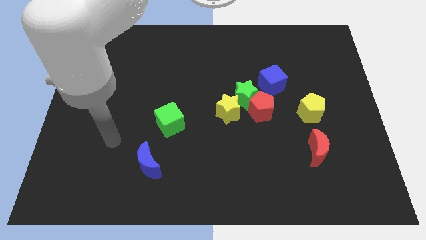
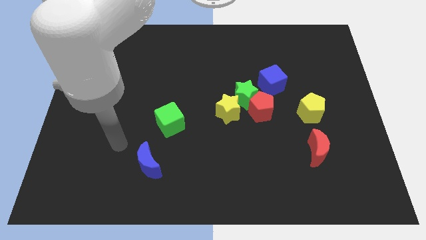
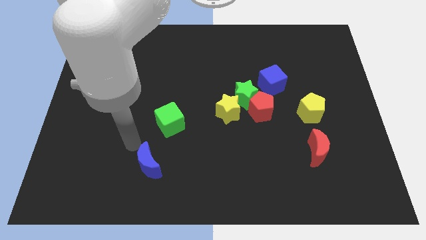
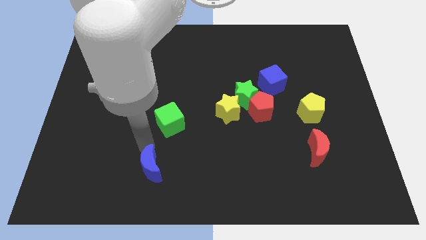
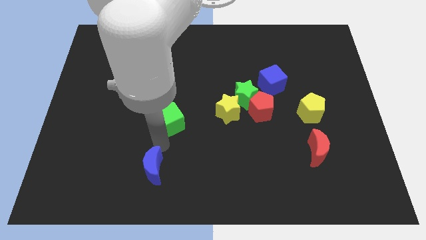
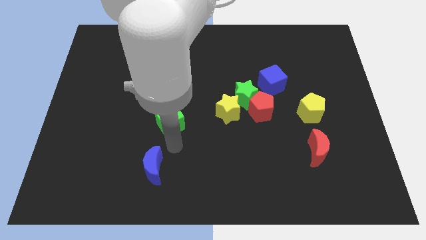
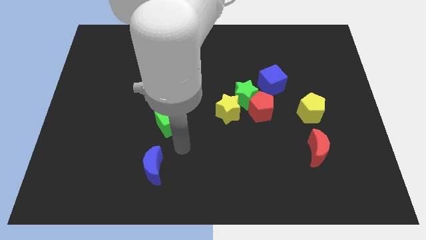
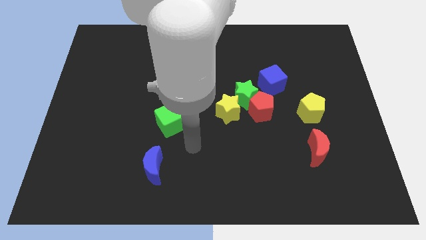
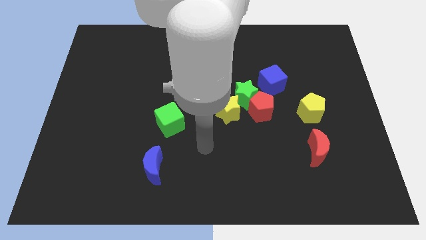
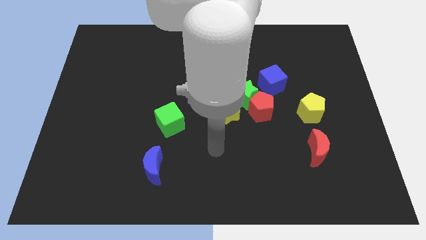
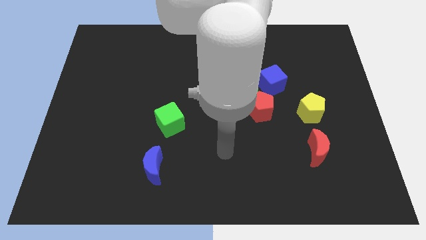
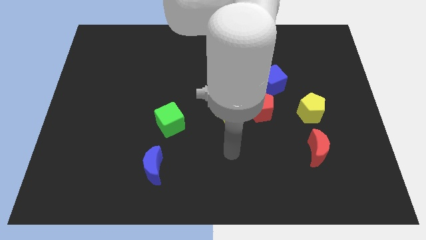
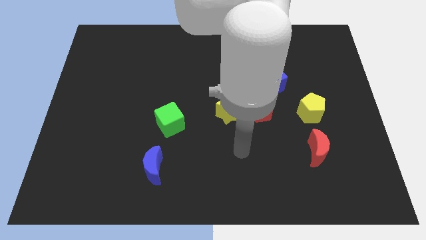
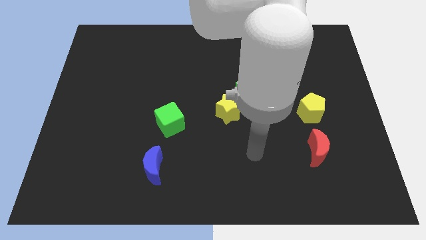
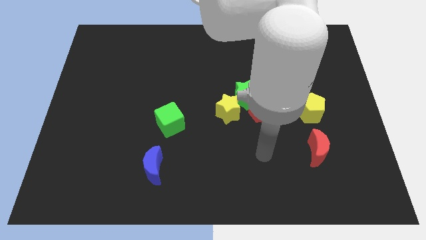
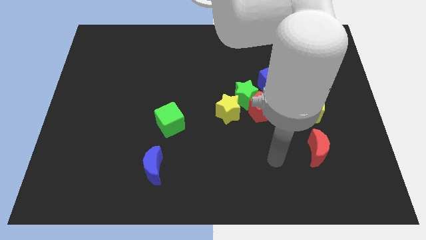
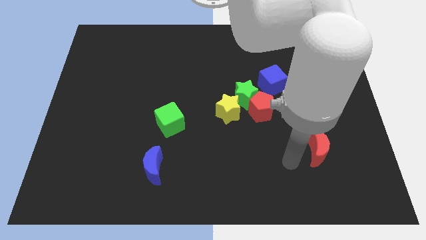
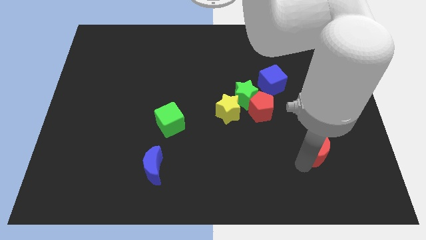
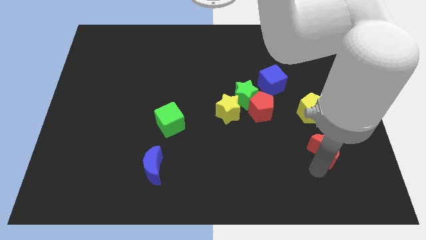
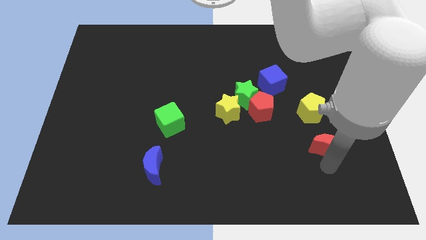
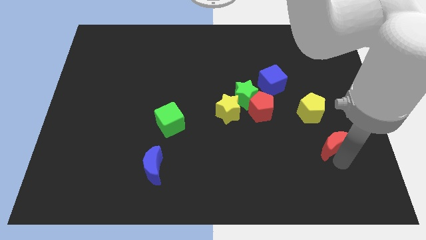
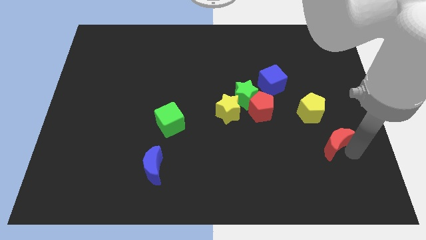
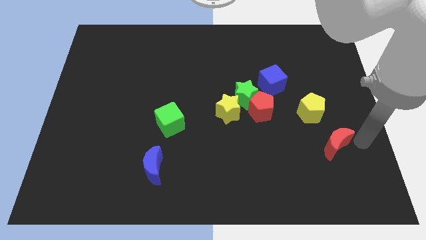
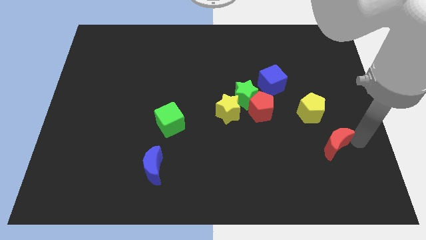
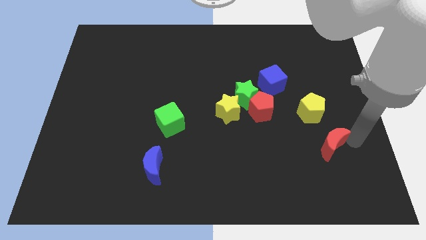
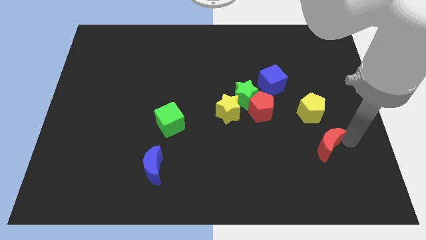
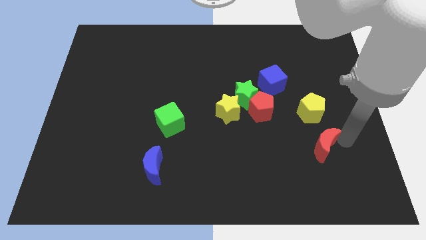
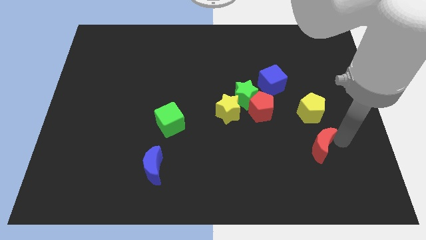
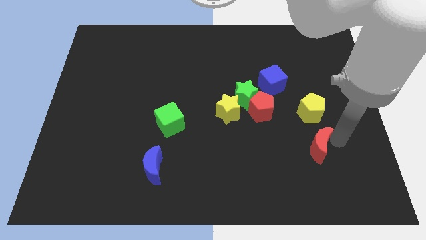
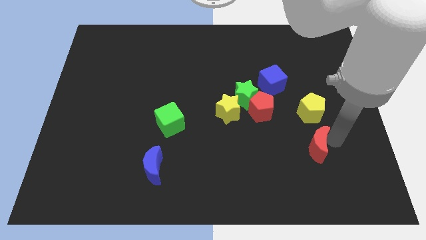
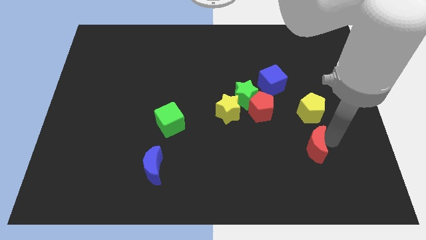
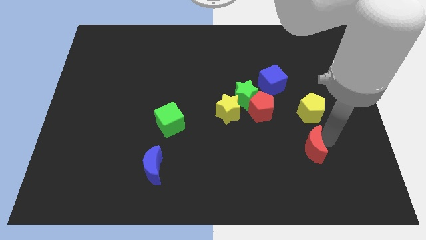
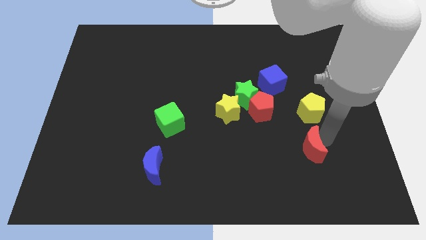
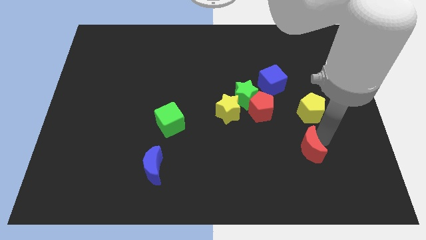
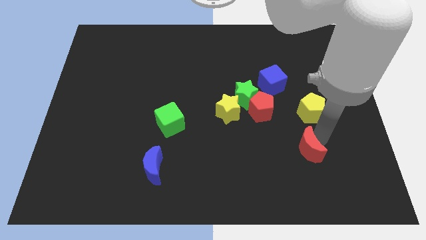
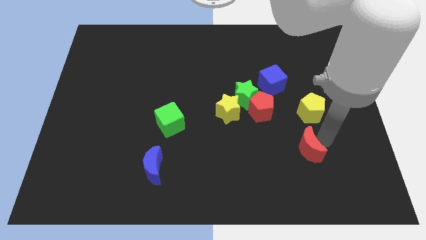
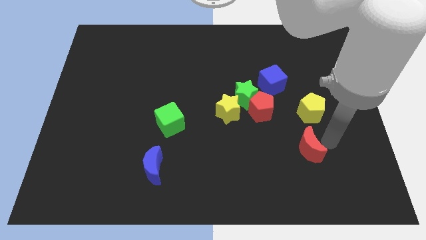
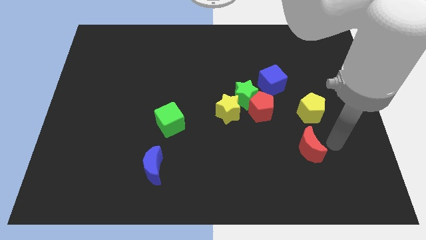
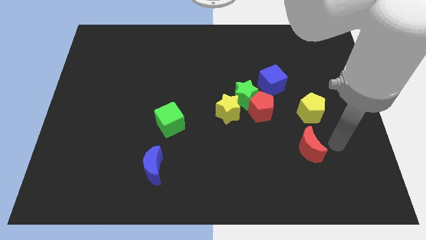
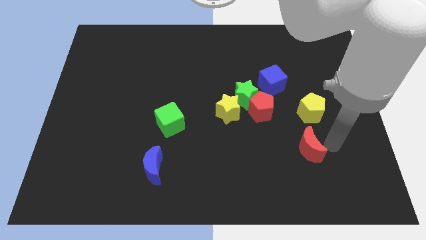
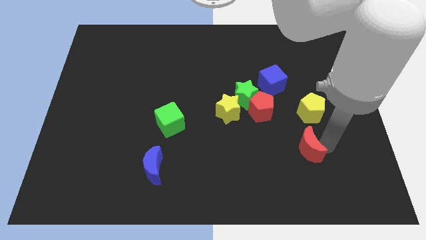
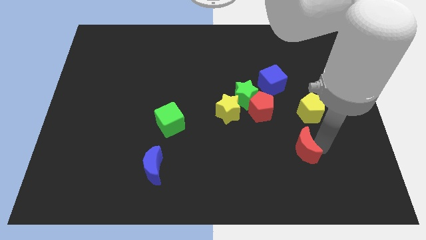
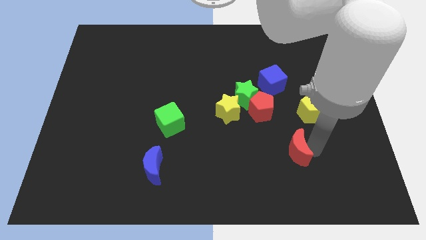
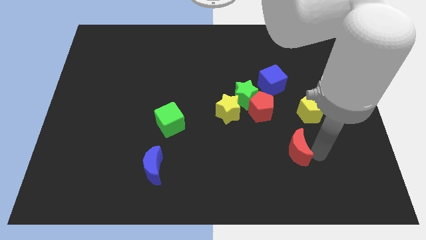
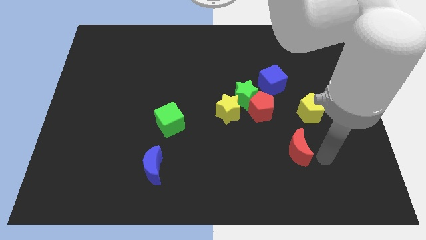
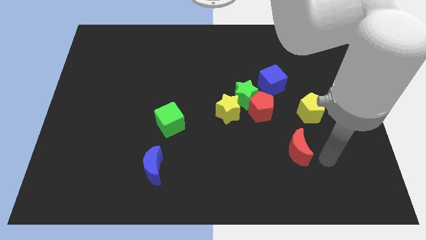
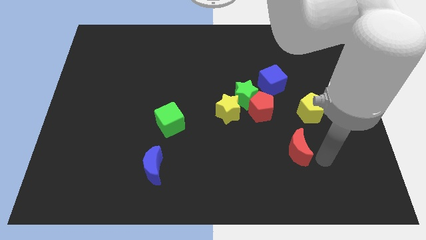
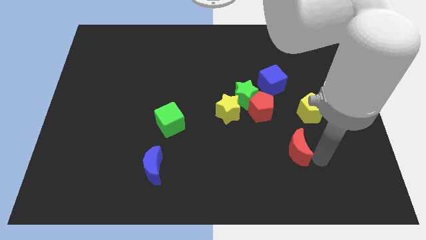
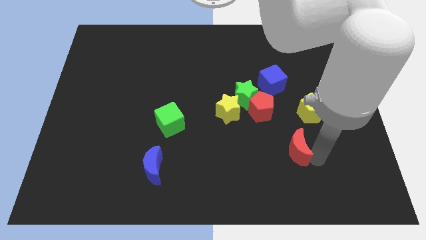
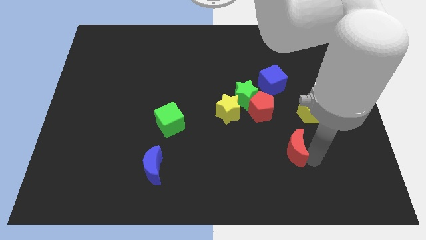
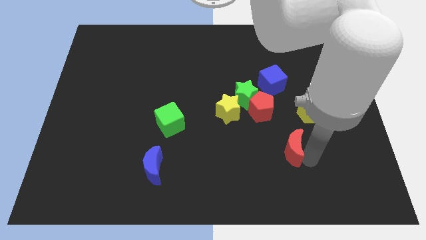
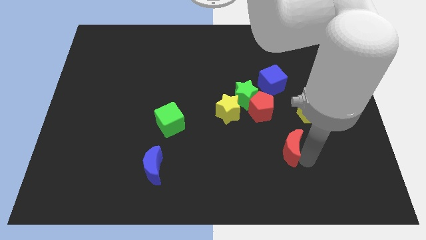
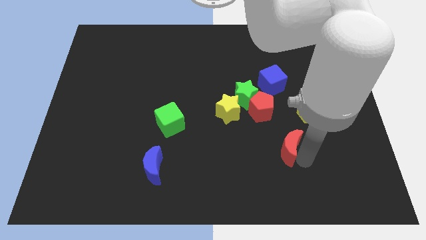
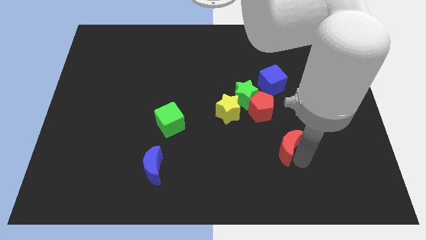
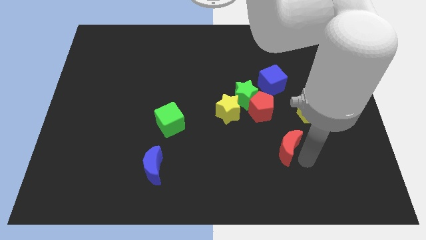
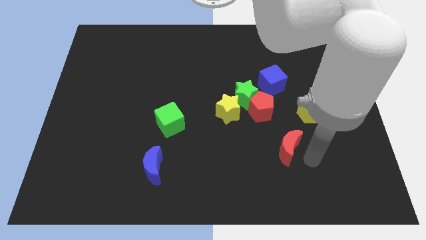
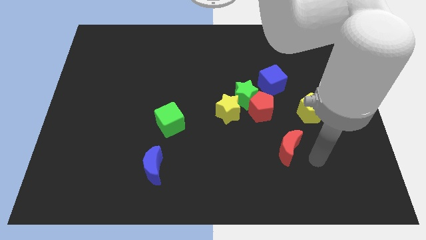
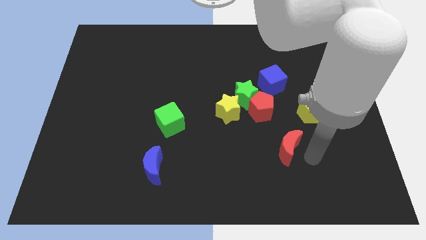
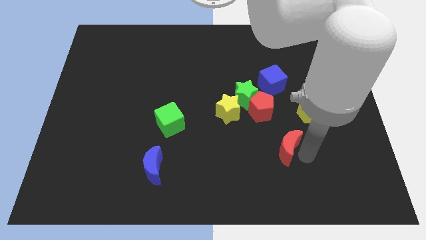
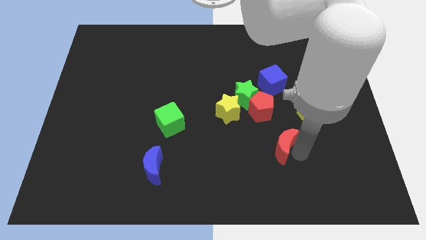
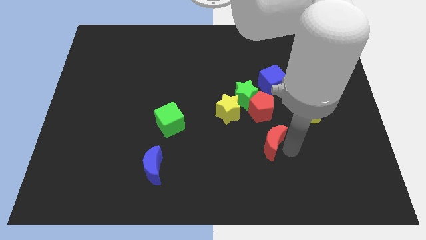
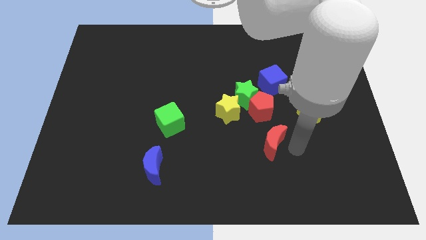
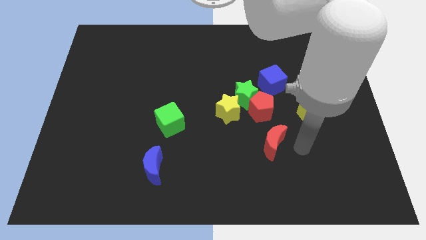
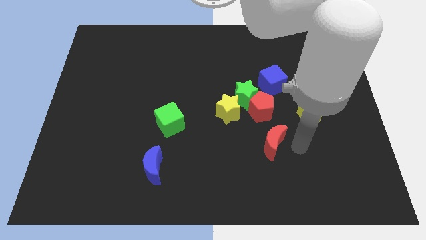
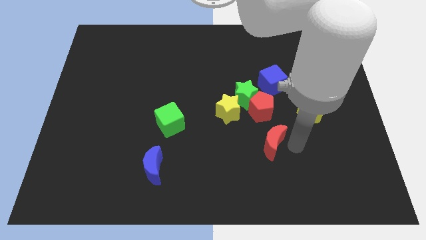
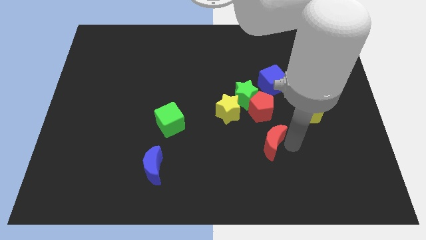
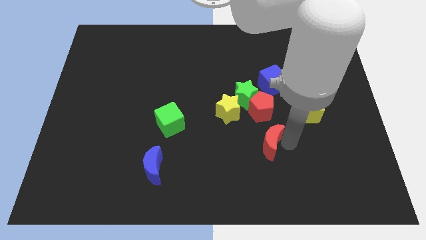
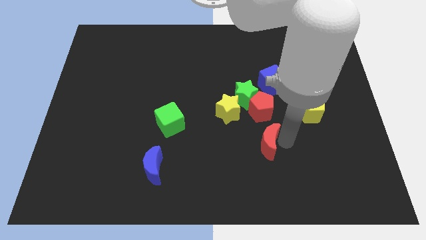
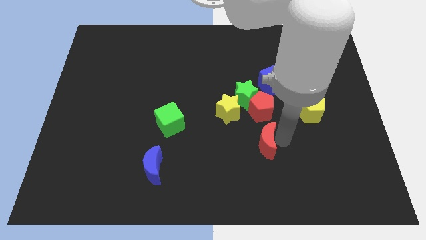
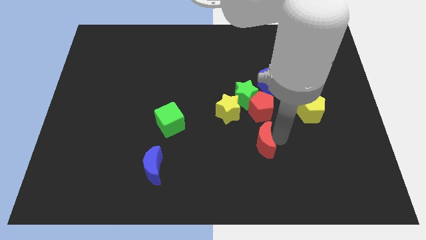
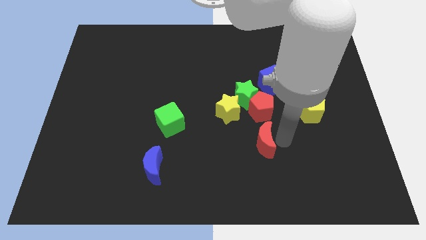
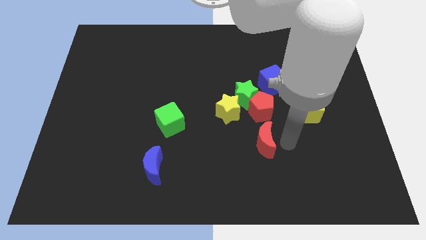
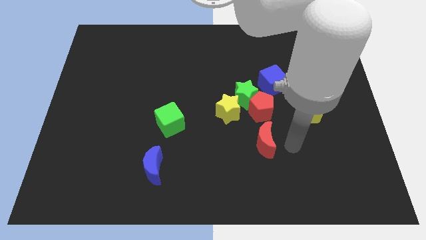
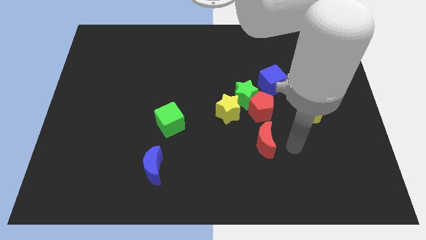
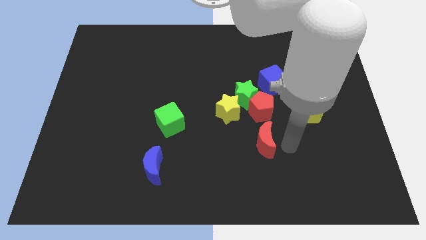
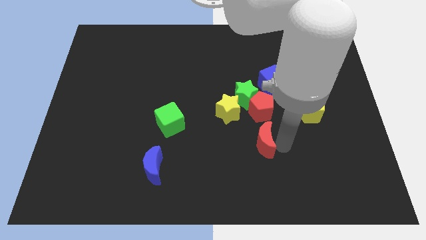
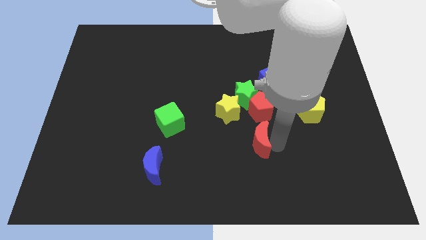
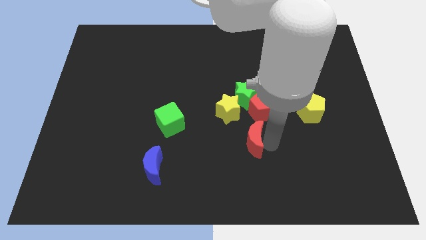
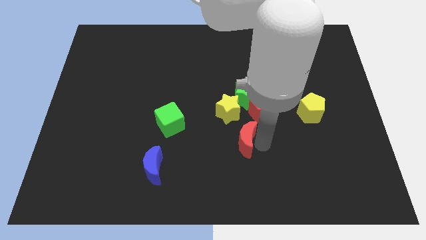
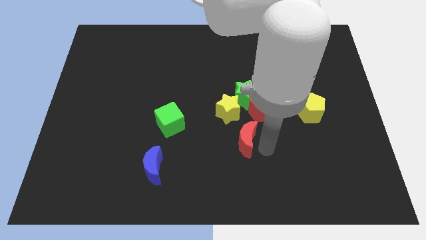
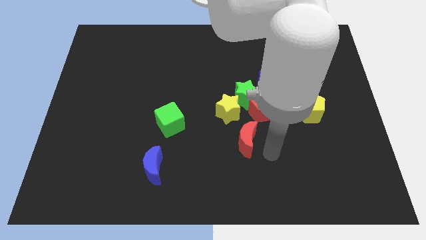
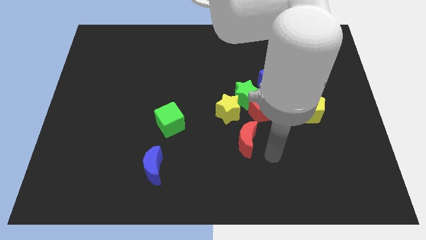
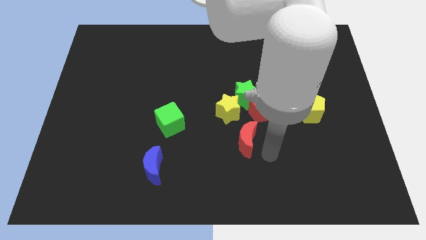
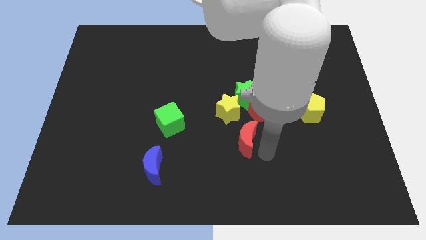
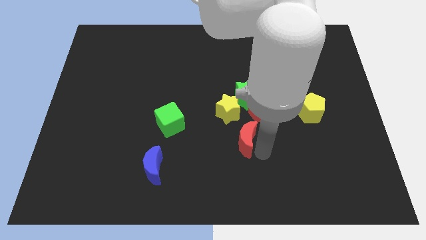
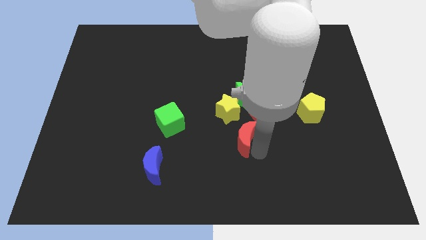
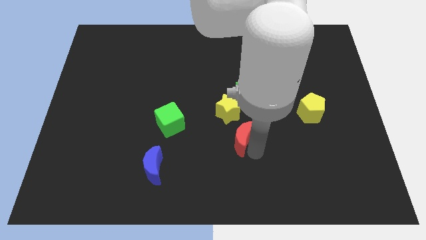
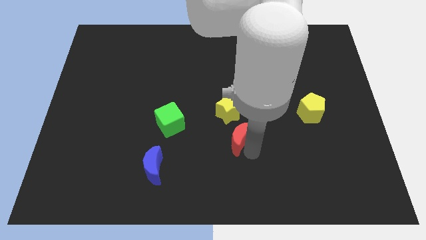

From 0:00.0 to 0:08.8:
put the red moon to the center
